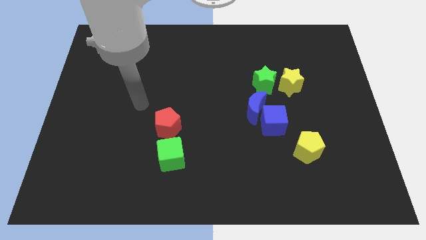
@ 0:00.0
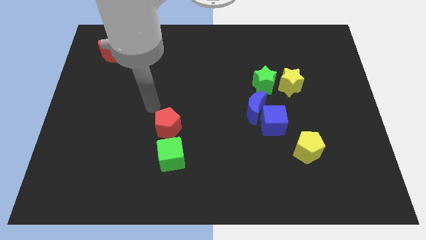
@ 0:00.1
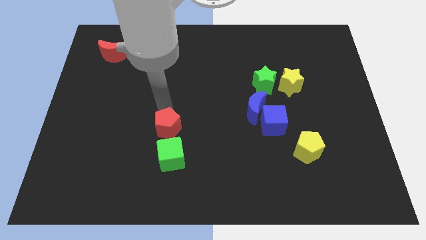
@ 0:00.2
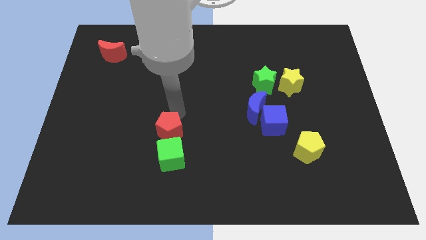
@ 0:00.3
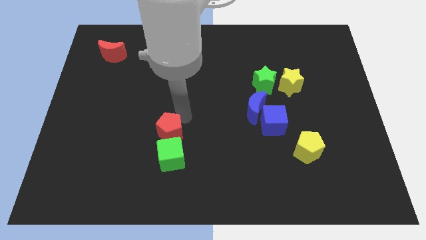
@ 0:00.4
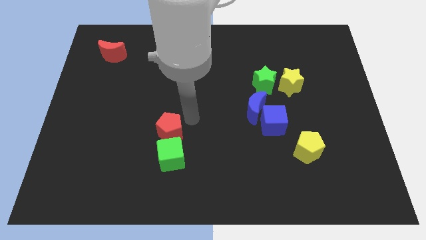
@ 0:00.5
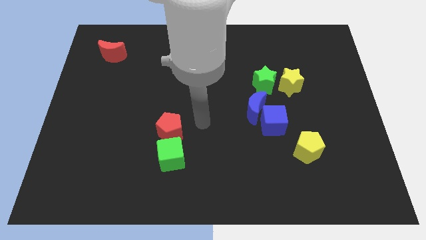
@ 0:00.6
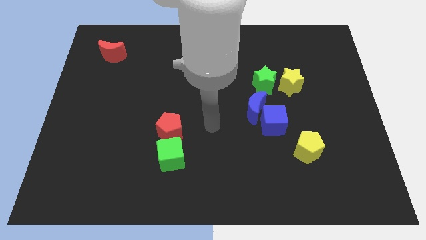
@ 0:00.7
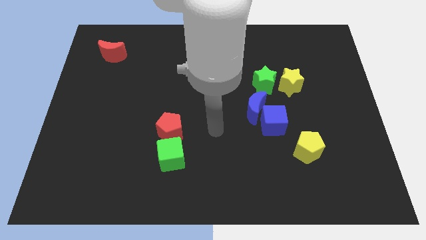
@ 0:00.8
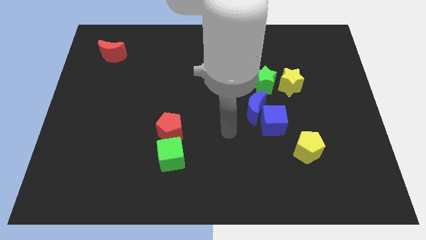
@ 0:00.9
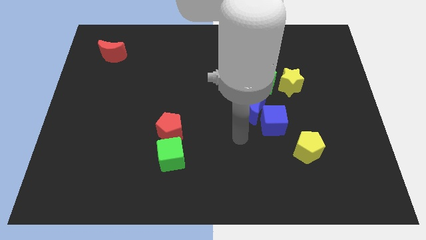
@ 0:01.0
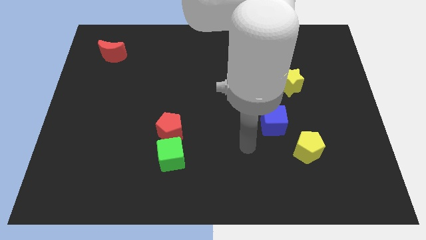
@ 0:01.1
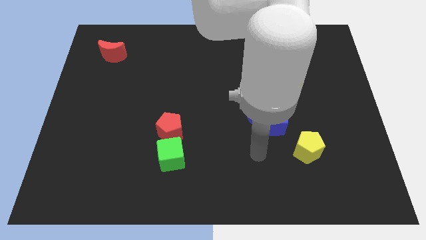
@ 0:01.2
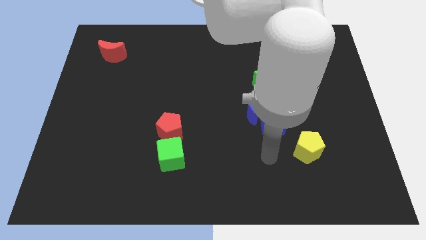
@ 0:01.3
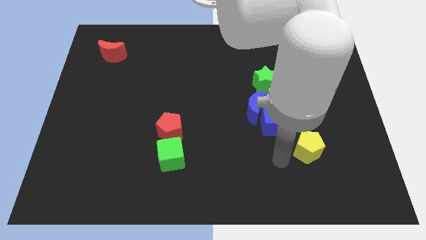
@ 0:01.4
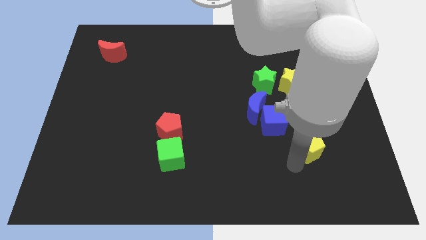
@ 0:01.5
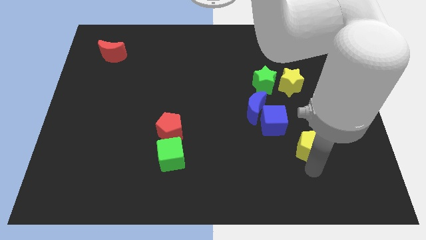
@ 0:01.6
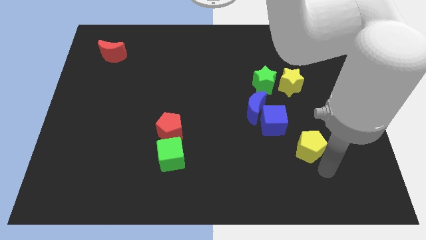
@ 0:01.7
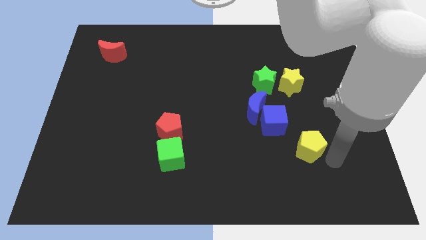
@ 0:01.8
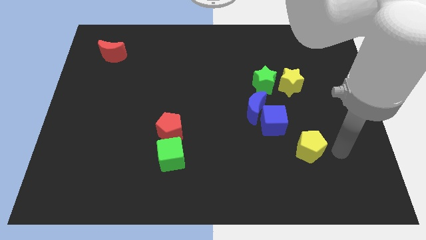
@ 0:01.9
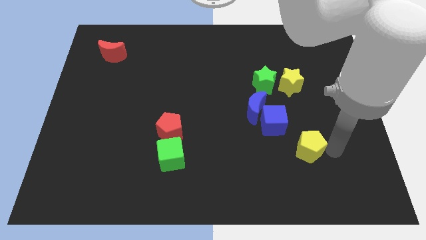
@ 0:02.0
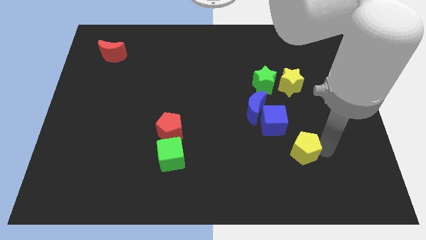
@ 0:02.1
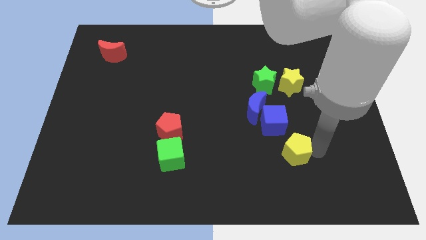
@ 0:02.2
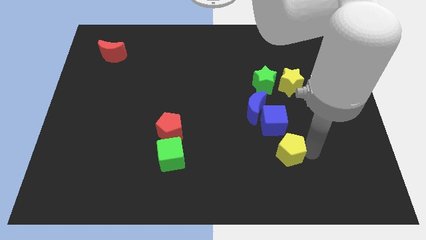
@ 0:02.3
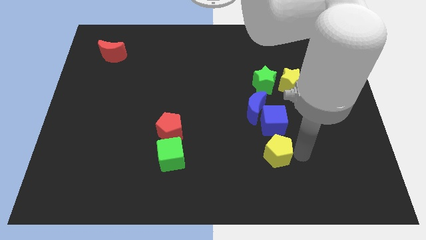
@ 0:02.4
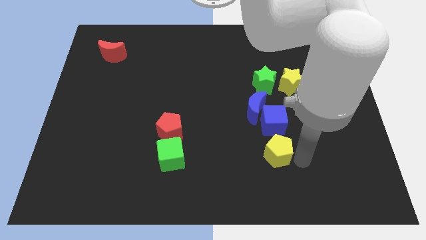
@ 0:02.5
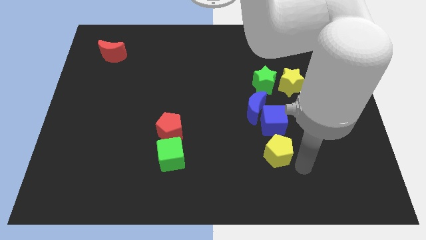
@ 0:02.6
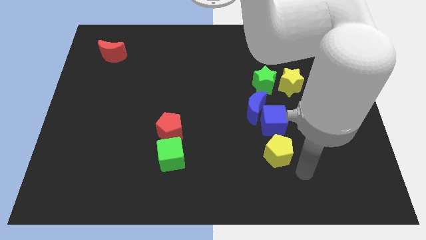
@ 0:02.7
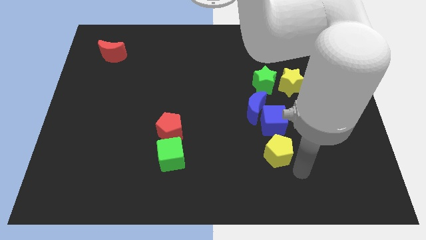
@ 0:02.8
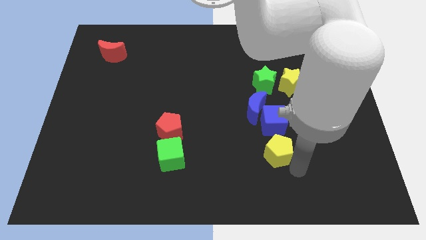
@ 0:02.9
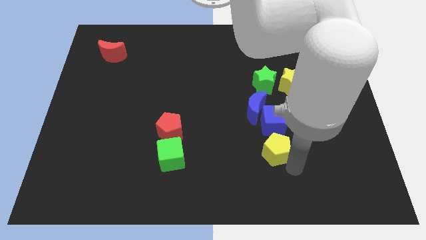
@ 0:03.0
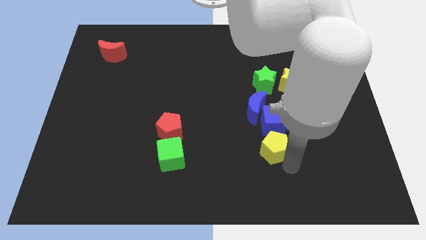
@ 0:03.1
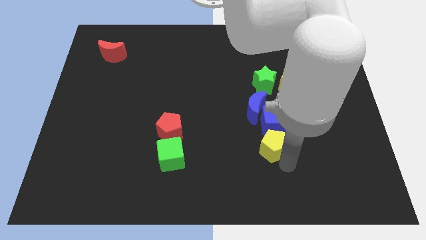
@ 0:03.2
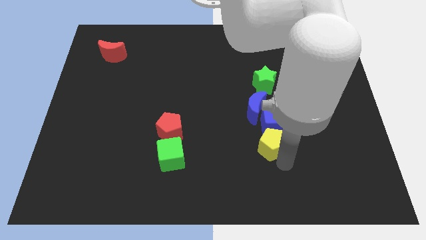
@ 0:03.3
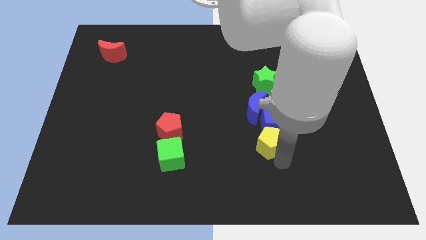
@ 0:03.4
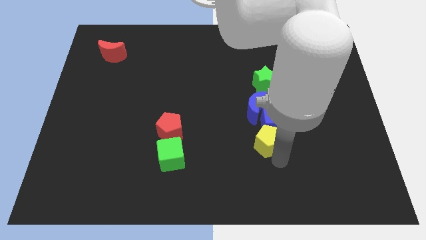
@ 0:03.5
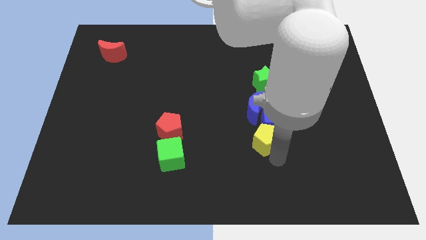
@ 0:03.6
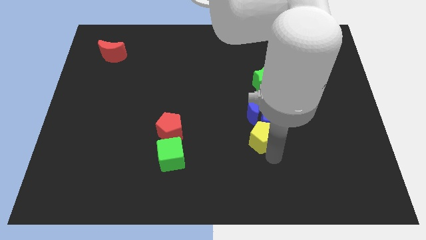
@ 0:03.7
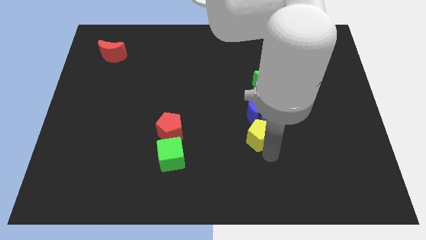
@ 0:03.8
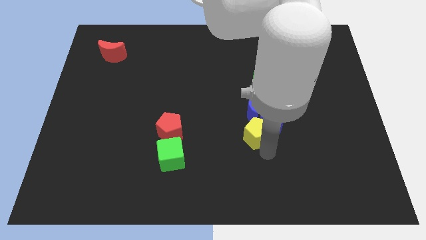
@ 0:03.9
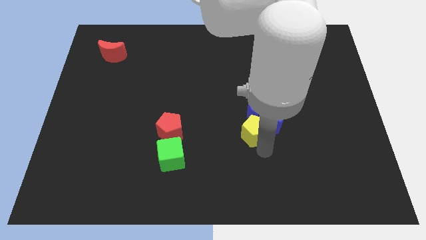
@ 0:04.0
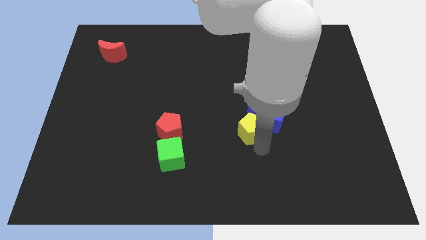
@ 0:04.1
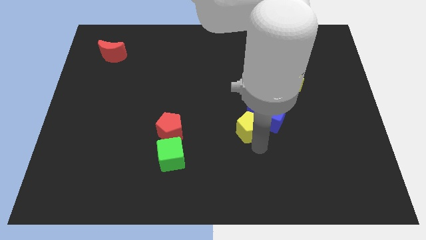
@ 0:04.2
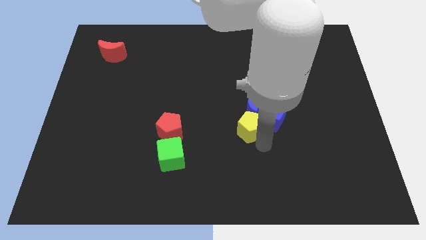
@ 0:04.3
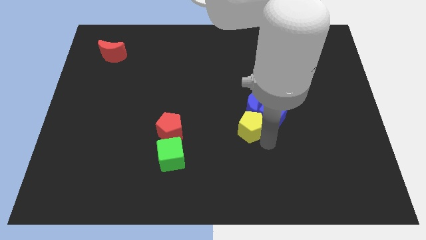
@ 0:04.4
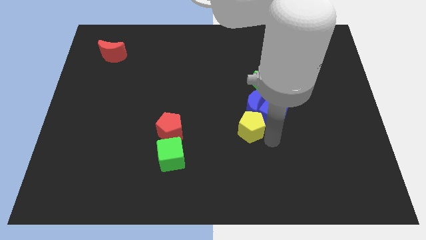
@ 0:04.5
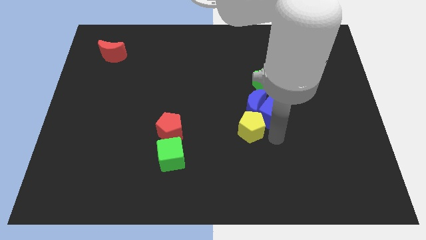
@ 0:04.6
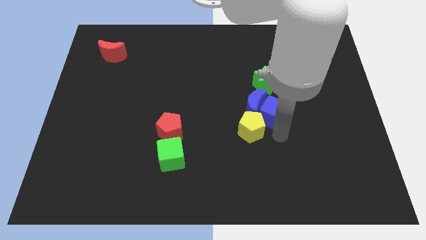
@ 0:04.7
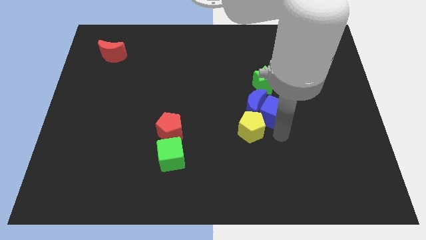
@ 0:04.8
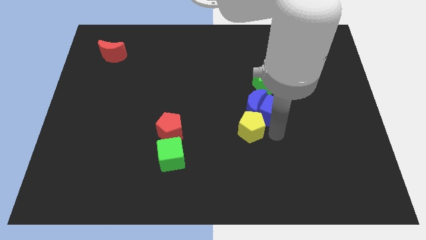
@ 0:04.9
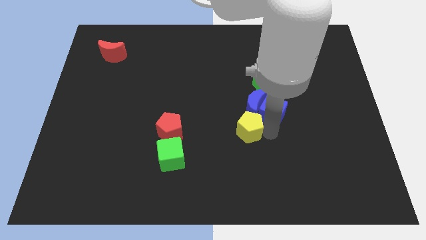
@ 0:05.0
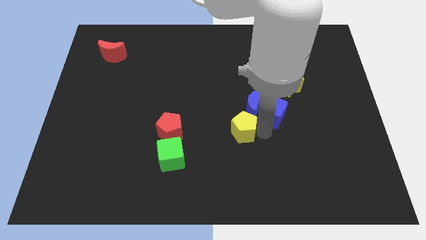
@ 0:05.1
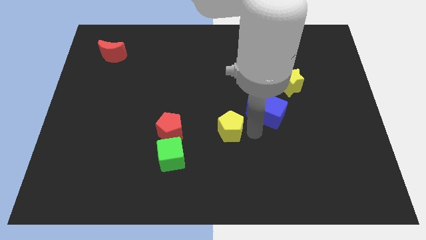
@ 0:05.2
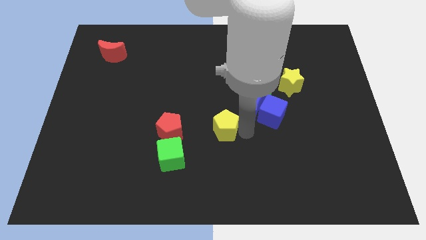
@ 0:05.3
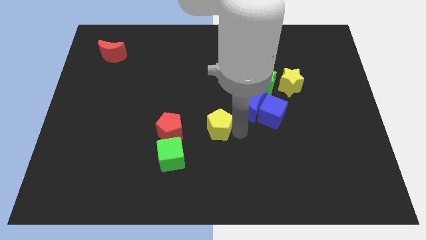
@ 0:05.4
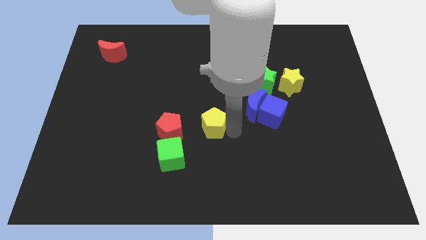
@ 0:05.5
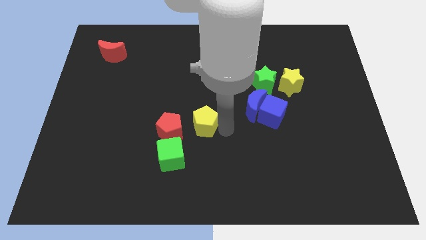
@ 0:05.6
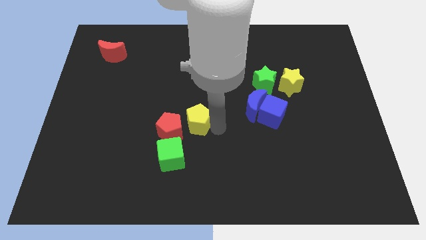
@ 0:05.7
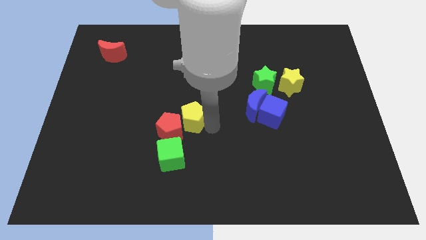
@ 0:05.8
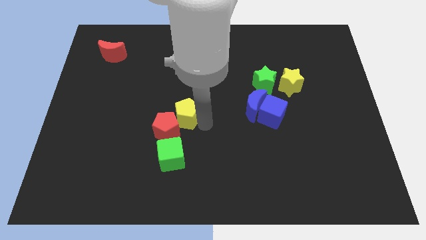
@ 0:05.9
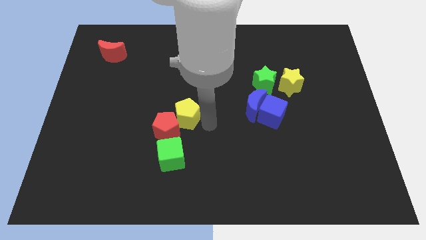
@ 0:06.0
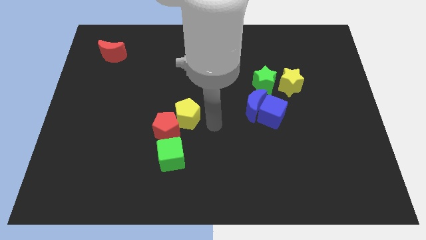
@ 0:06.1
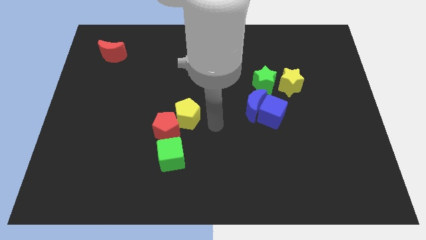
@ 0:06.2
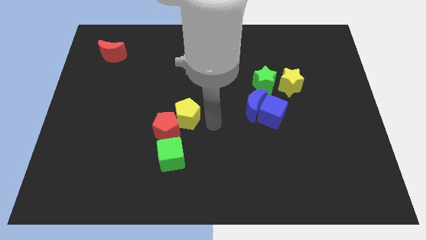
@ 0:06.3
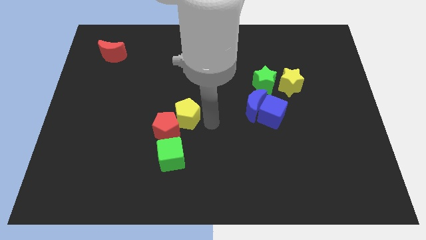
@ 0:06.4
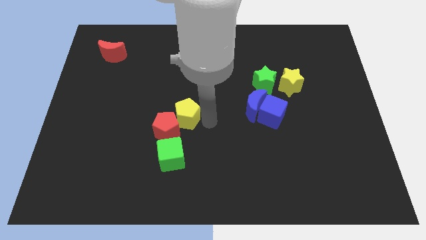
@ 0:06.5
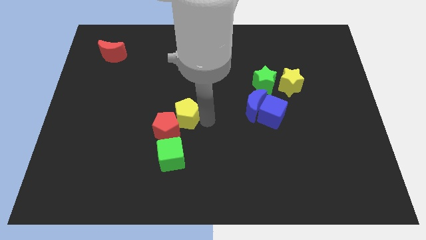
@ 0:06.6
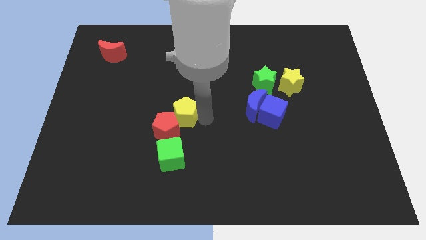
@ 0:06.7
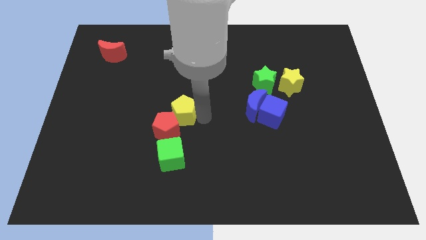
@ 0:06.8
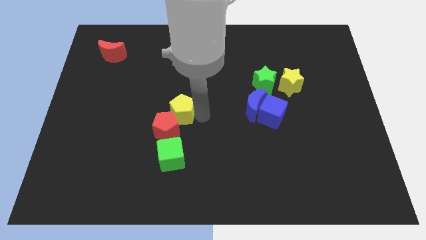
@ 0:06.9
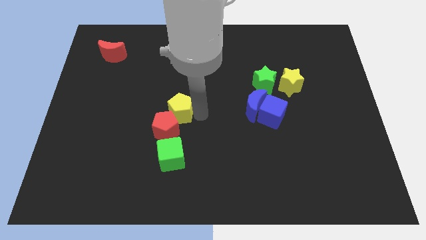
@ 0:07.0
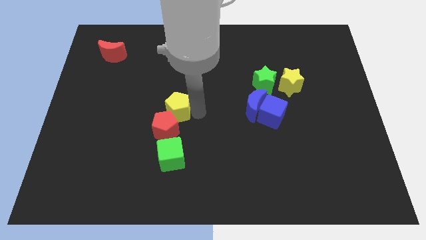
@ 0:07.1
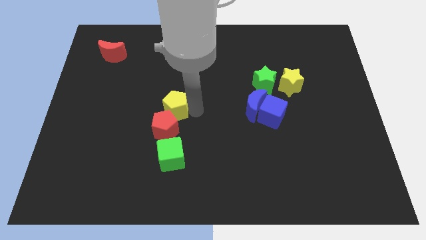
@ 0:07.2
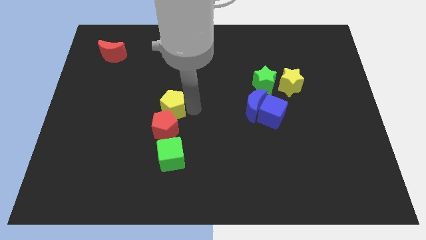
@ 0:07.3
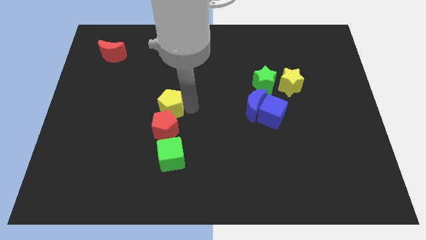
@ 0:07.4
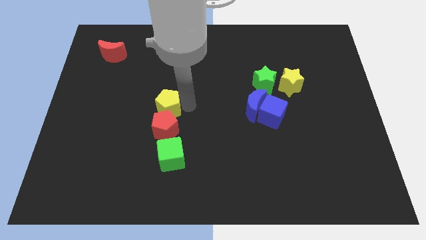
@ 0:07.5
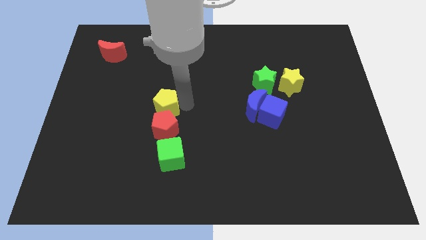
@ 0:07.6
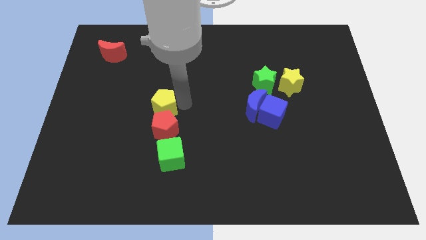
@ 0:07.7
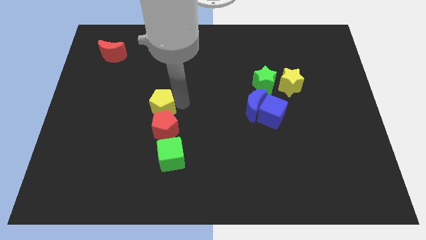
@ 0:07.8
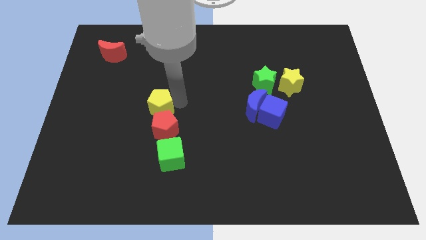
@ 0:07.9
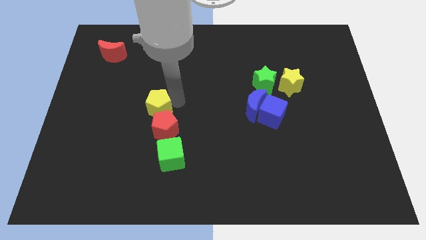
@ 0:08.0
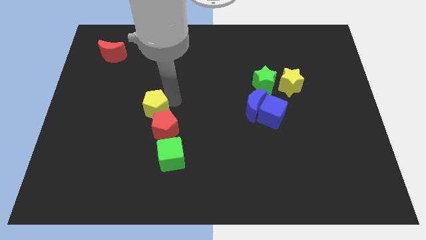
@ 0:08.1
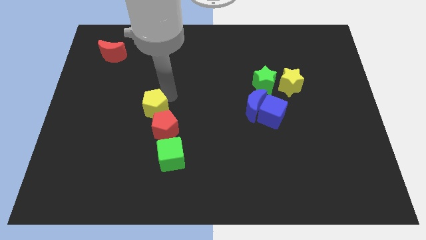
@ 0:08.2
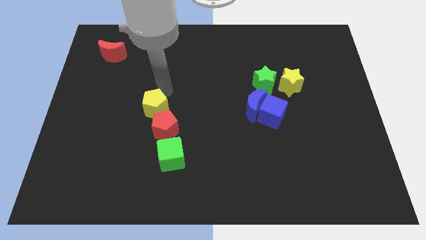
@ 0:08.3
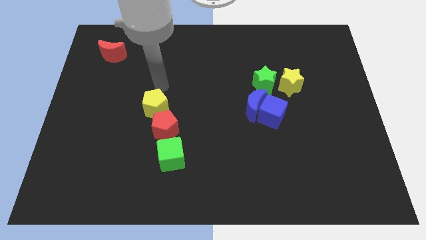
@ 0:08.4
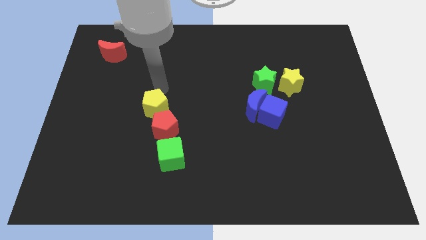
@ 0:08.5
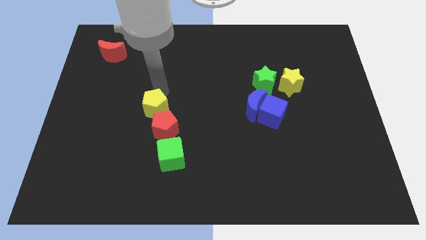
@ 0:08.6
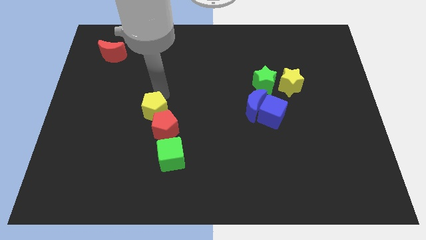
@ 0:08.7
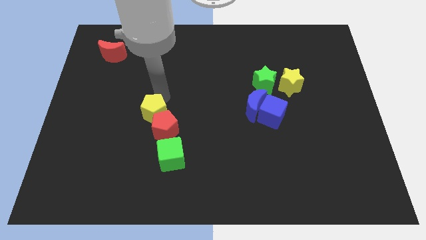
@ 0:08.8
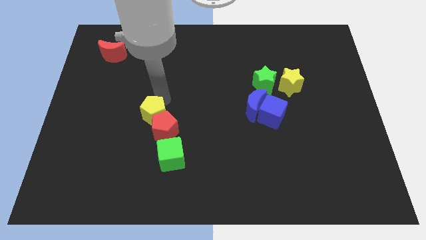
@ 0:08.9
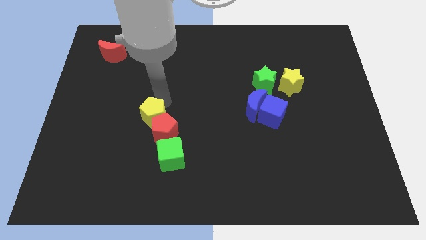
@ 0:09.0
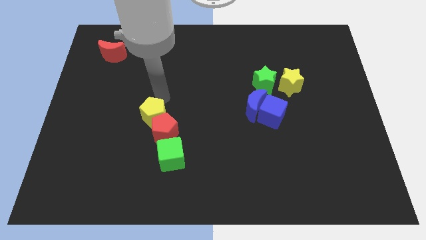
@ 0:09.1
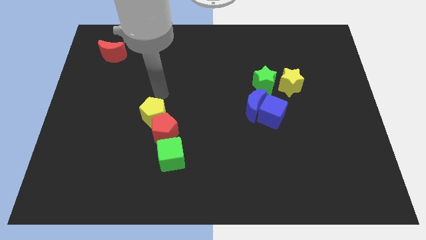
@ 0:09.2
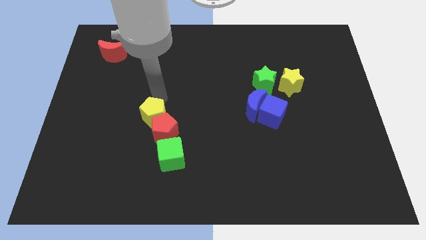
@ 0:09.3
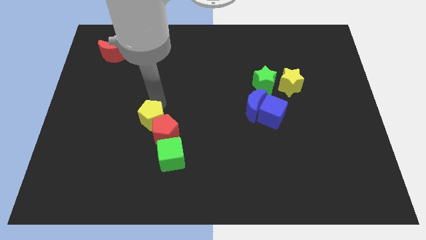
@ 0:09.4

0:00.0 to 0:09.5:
put the yellow pentagon to the top left side of the green cube
